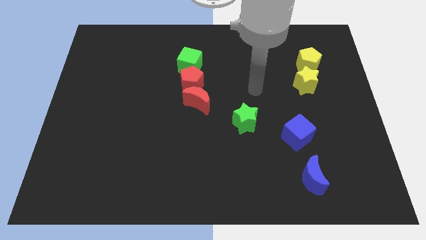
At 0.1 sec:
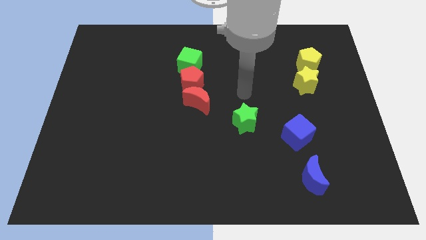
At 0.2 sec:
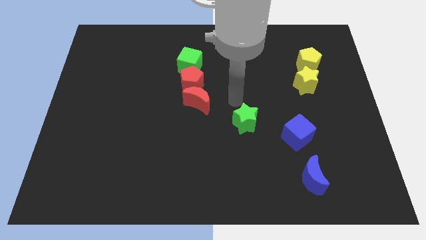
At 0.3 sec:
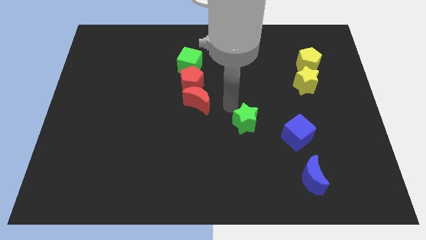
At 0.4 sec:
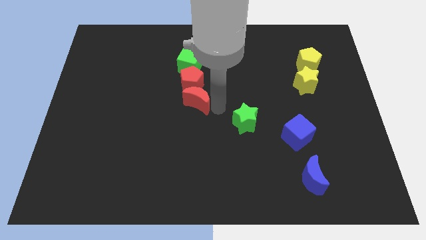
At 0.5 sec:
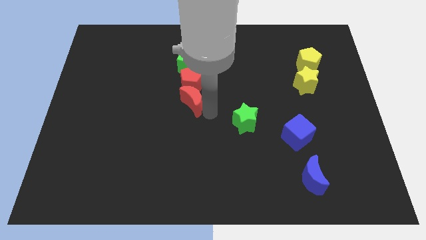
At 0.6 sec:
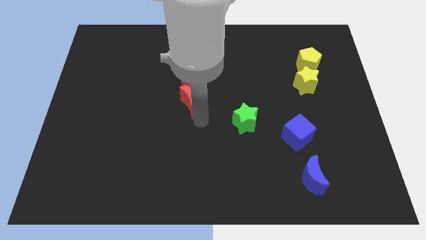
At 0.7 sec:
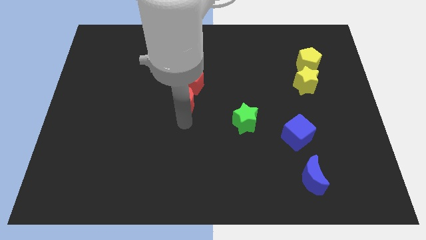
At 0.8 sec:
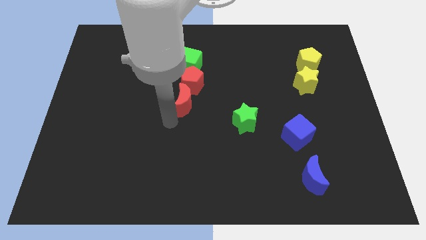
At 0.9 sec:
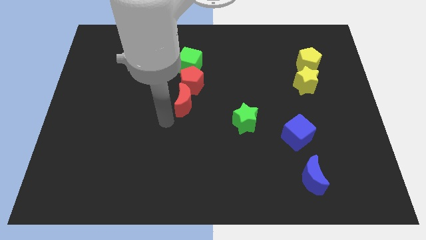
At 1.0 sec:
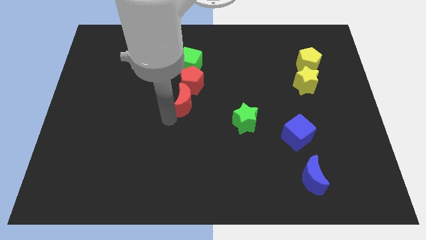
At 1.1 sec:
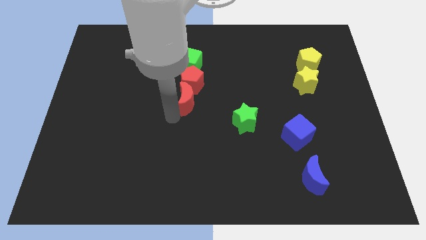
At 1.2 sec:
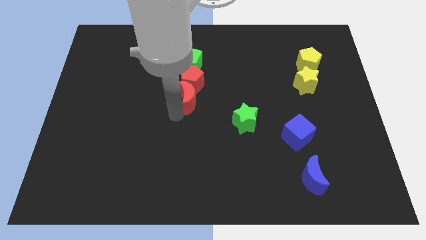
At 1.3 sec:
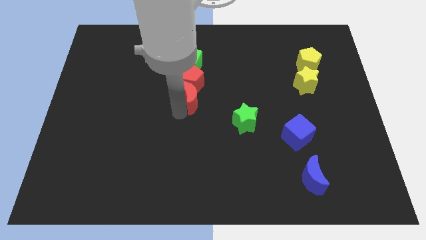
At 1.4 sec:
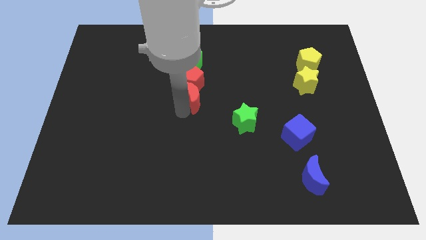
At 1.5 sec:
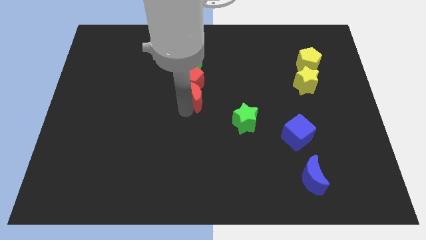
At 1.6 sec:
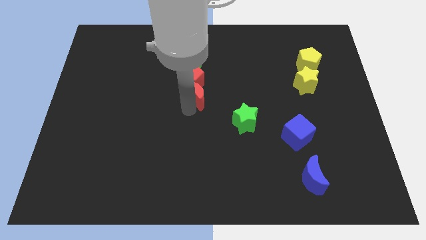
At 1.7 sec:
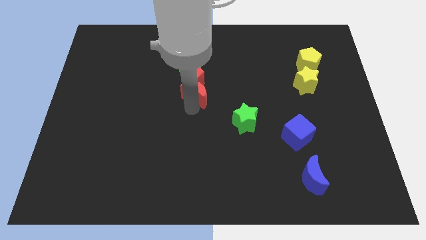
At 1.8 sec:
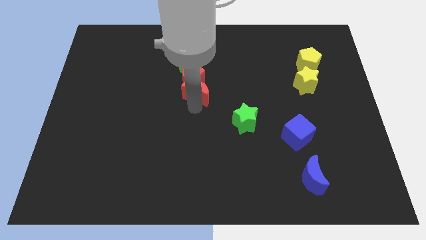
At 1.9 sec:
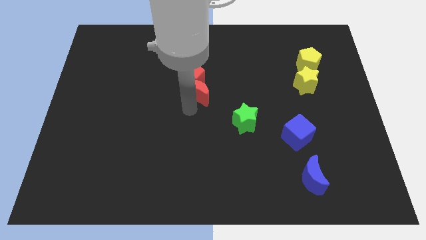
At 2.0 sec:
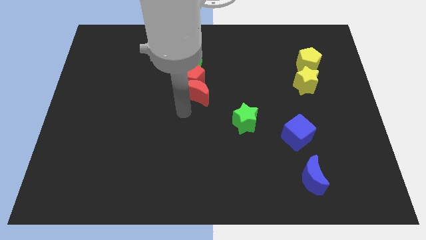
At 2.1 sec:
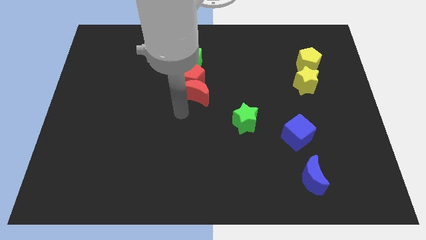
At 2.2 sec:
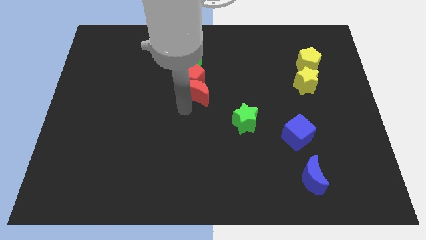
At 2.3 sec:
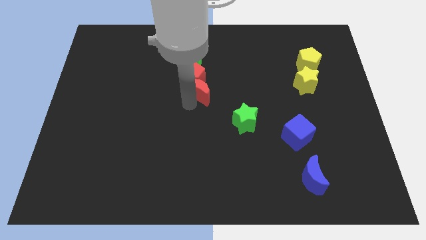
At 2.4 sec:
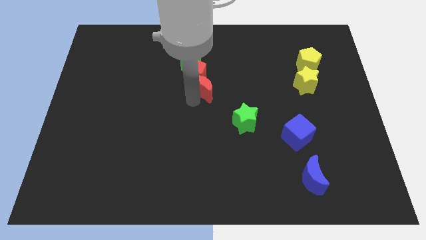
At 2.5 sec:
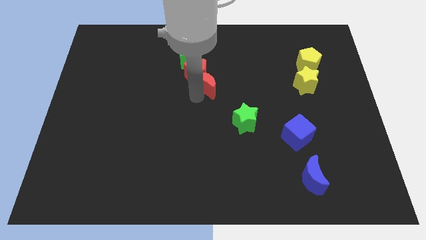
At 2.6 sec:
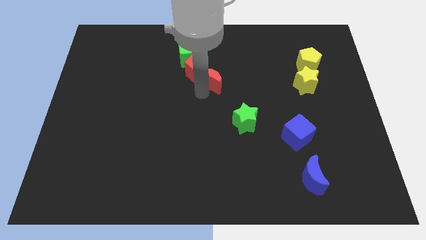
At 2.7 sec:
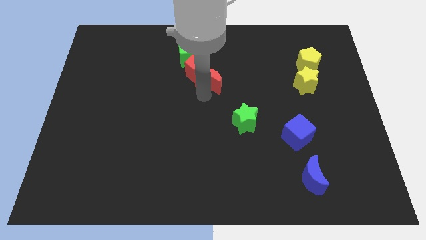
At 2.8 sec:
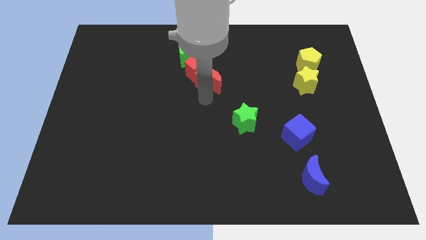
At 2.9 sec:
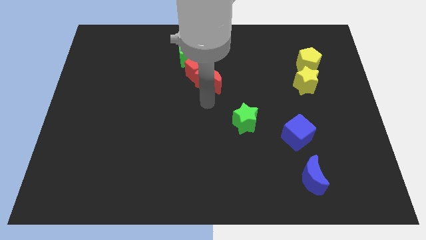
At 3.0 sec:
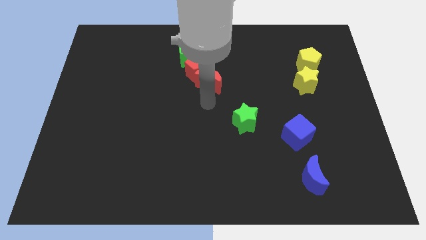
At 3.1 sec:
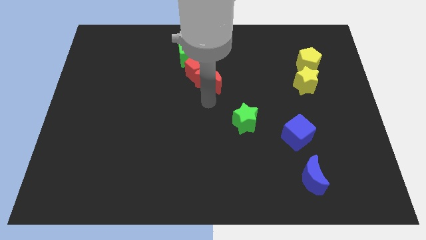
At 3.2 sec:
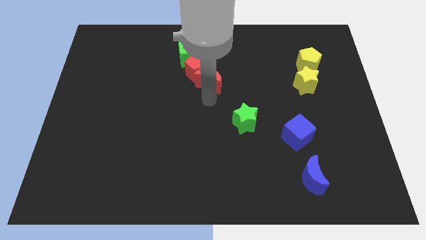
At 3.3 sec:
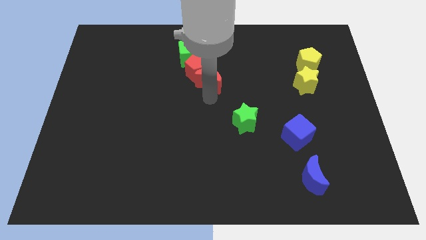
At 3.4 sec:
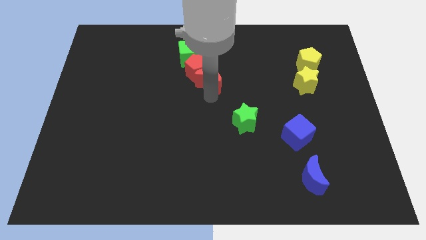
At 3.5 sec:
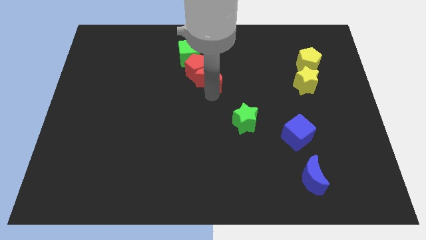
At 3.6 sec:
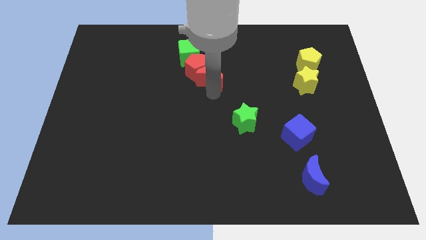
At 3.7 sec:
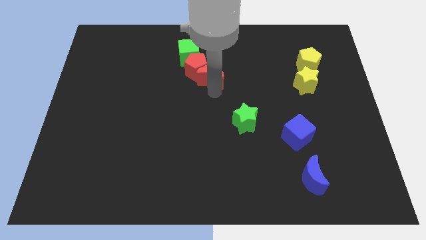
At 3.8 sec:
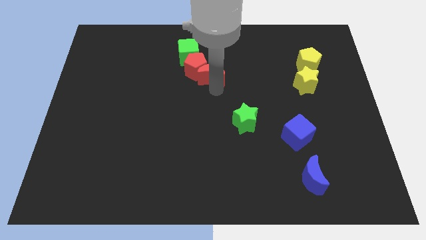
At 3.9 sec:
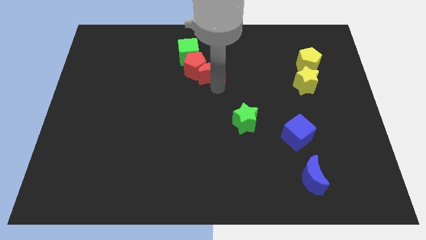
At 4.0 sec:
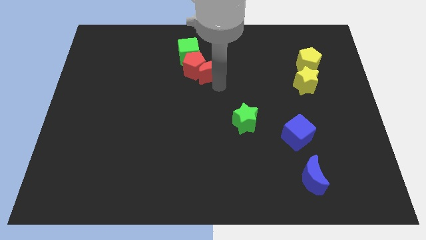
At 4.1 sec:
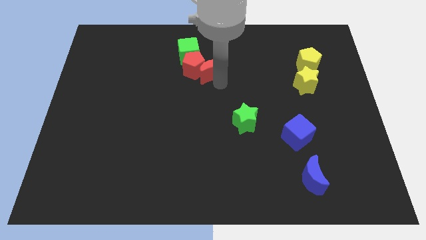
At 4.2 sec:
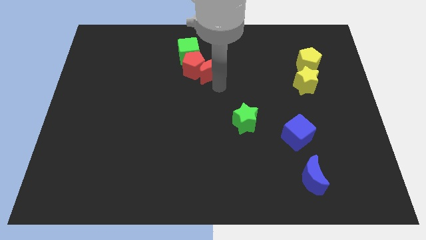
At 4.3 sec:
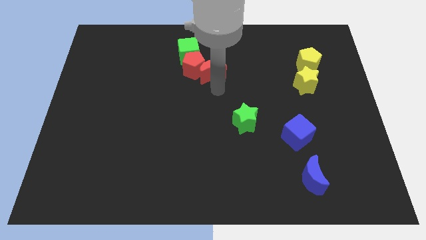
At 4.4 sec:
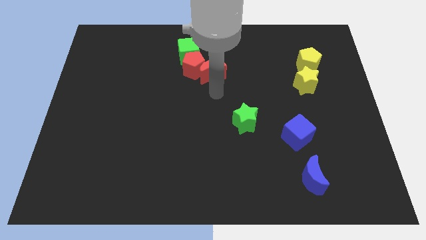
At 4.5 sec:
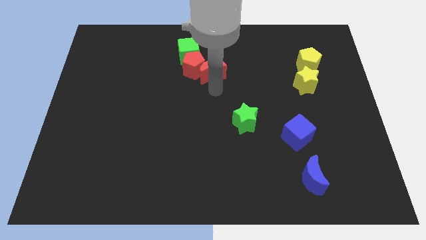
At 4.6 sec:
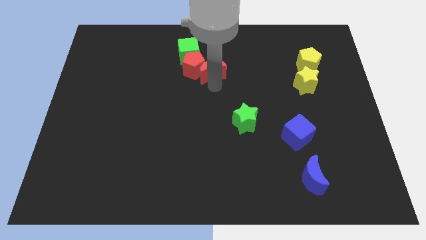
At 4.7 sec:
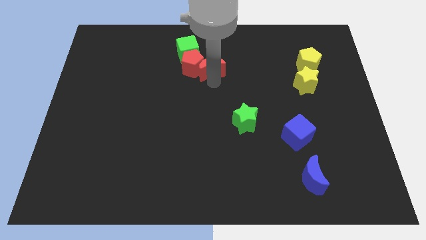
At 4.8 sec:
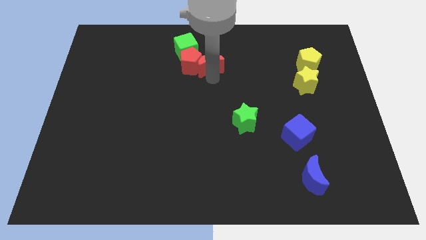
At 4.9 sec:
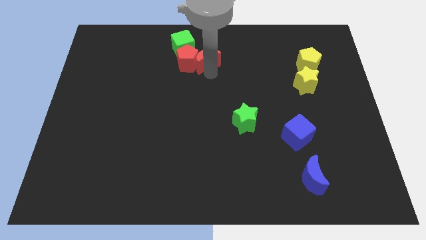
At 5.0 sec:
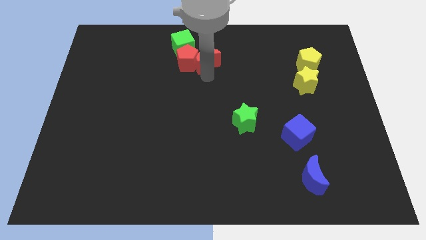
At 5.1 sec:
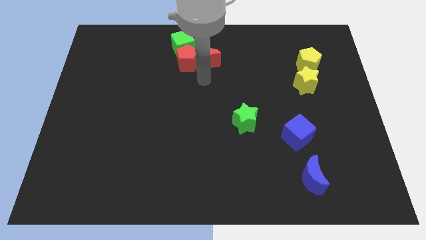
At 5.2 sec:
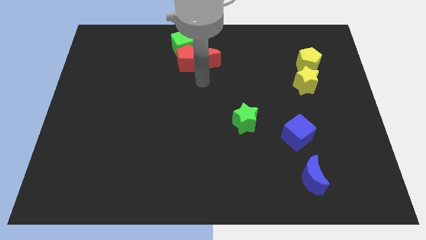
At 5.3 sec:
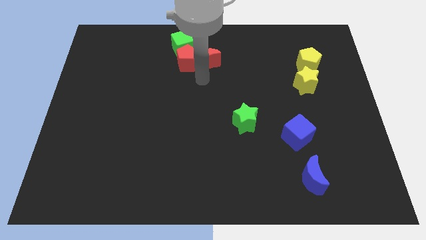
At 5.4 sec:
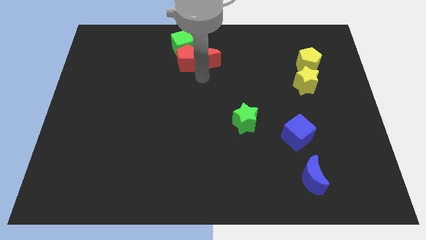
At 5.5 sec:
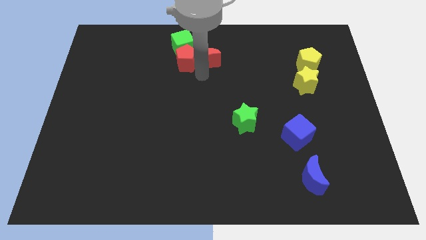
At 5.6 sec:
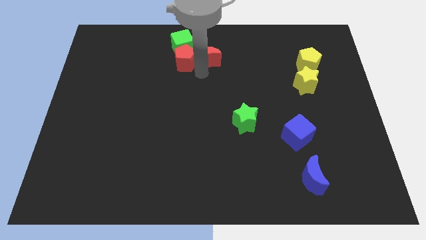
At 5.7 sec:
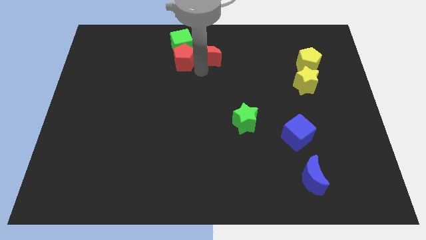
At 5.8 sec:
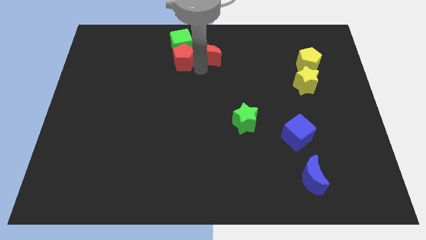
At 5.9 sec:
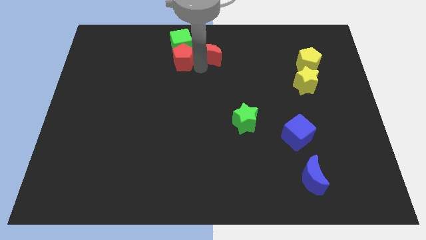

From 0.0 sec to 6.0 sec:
slide the red moon to the top side
